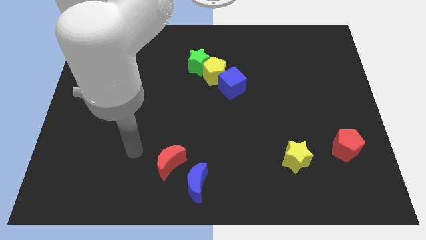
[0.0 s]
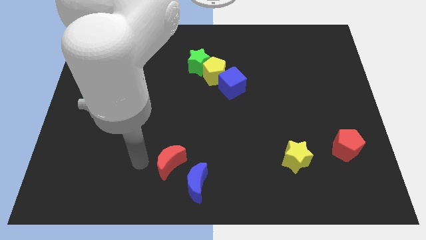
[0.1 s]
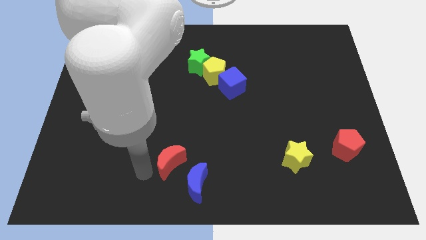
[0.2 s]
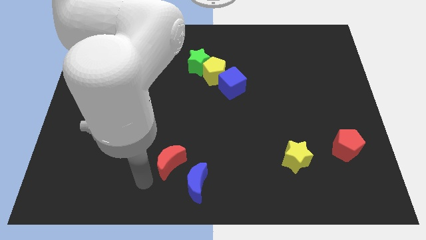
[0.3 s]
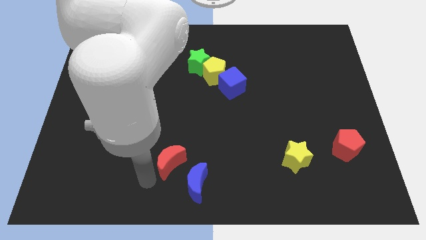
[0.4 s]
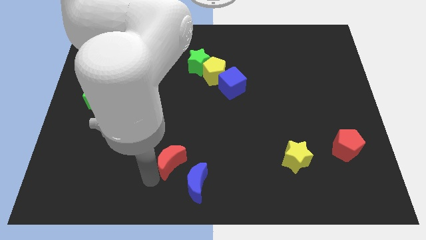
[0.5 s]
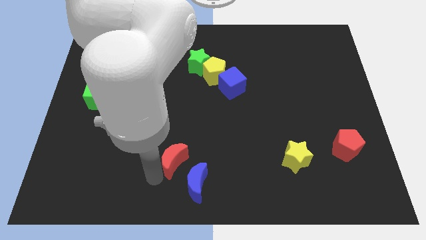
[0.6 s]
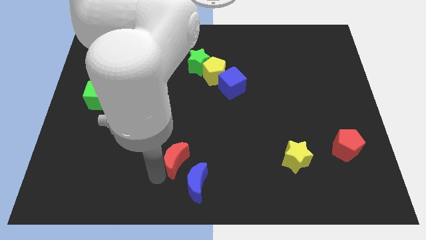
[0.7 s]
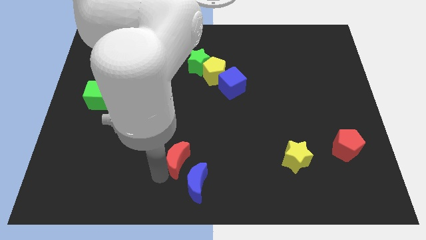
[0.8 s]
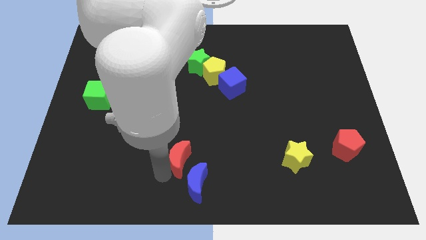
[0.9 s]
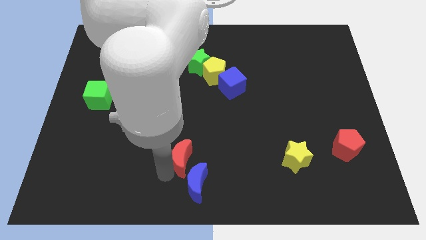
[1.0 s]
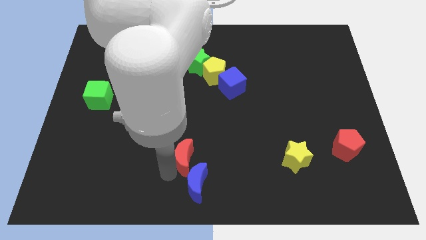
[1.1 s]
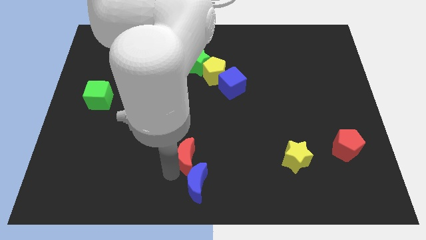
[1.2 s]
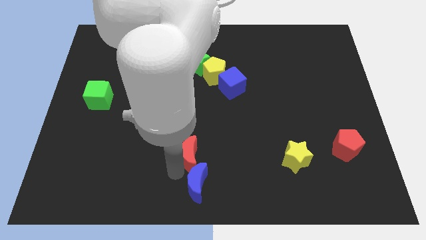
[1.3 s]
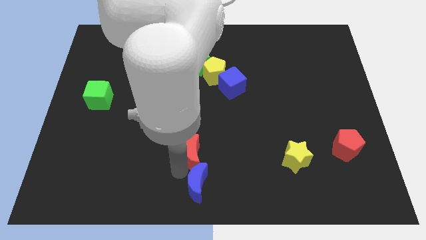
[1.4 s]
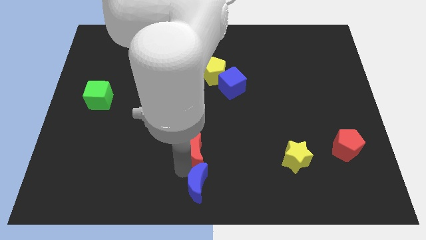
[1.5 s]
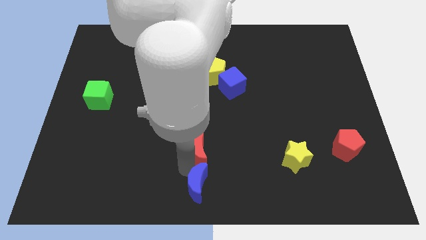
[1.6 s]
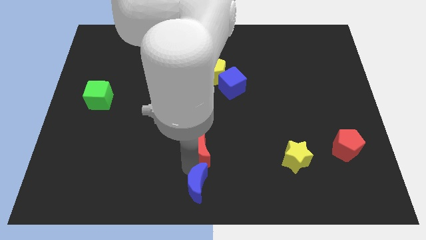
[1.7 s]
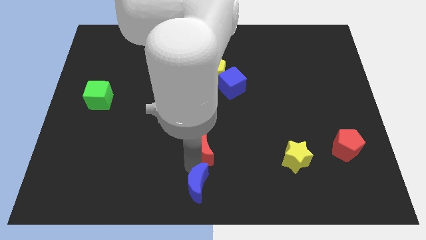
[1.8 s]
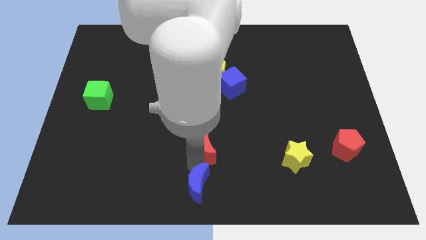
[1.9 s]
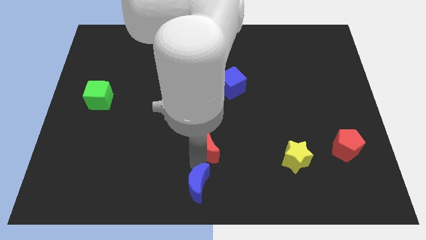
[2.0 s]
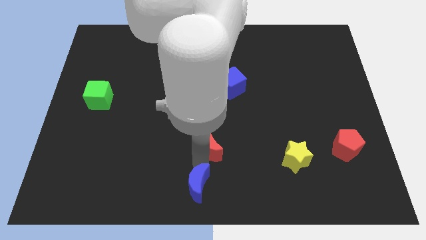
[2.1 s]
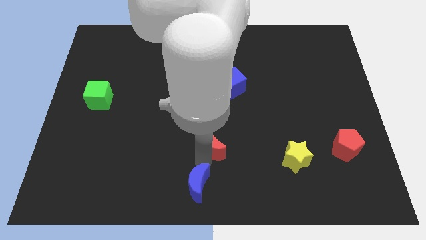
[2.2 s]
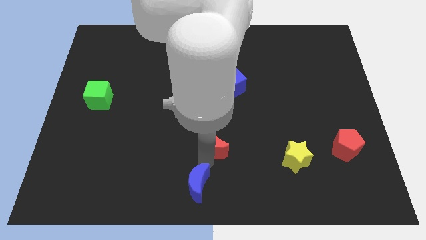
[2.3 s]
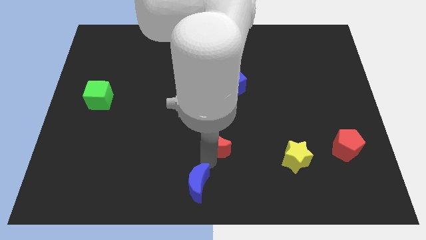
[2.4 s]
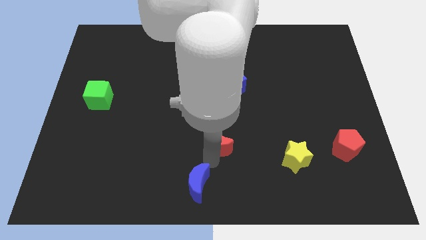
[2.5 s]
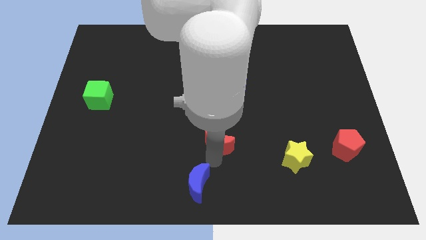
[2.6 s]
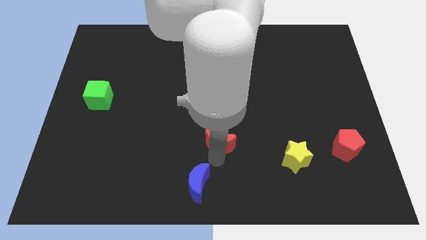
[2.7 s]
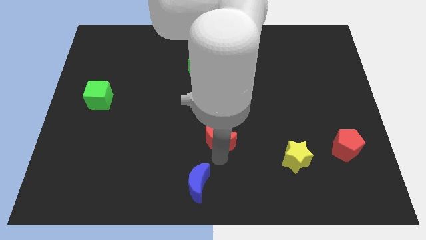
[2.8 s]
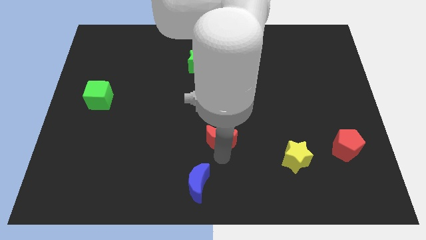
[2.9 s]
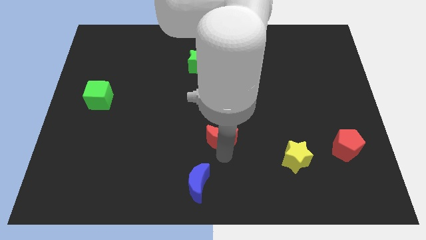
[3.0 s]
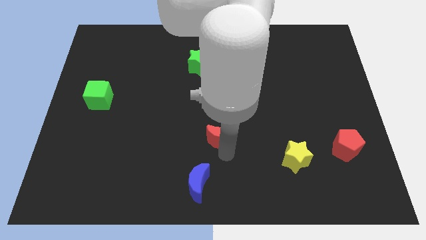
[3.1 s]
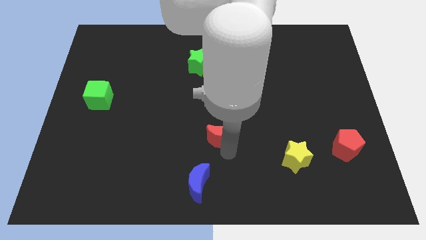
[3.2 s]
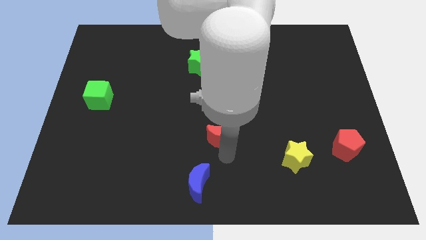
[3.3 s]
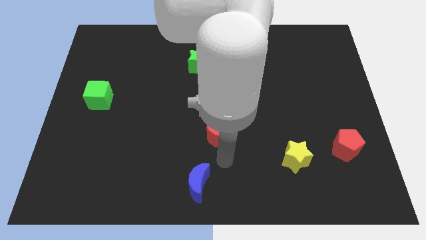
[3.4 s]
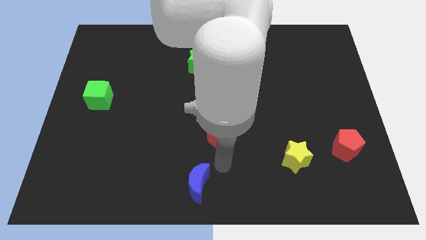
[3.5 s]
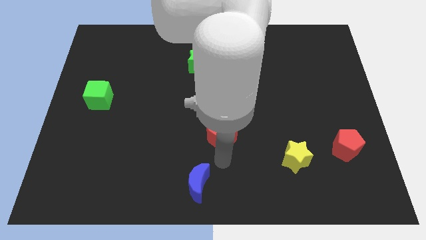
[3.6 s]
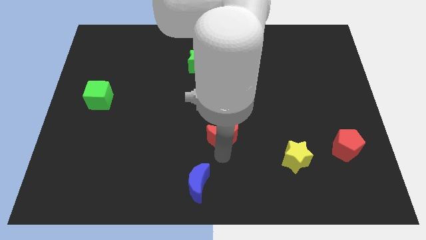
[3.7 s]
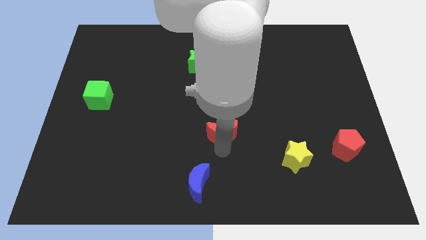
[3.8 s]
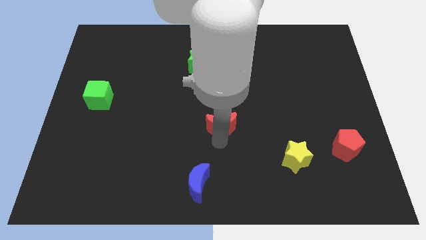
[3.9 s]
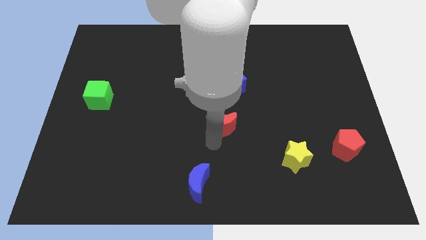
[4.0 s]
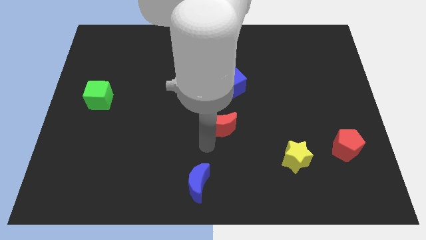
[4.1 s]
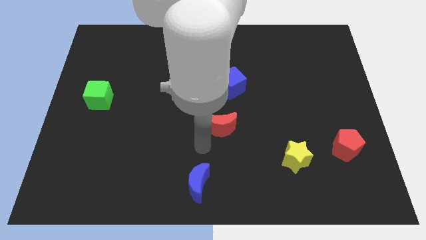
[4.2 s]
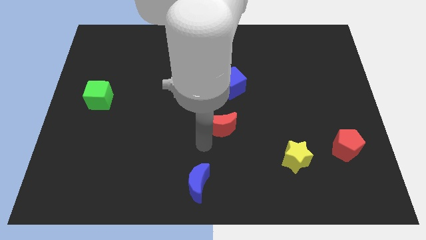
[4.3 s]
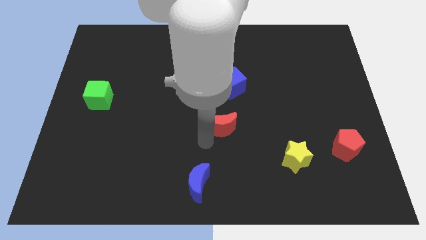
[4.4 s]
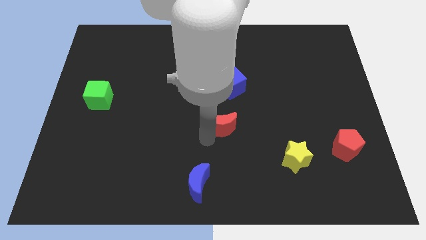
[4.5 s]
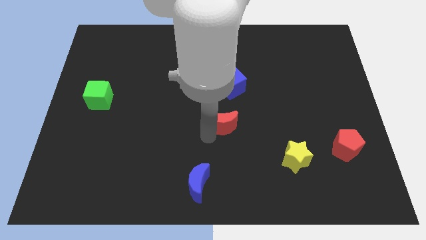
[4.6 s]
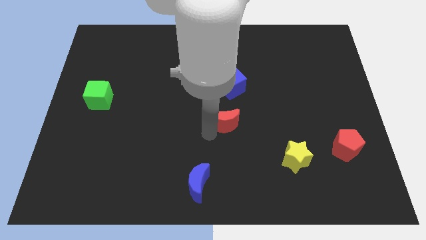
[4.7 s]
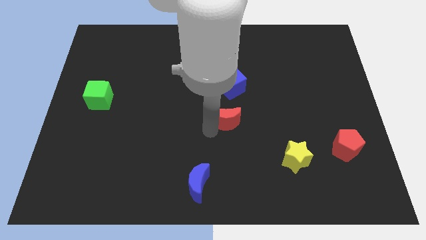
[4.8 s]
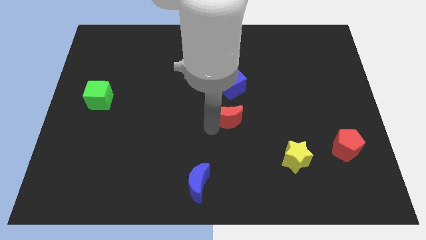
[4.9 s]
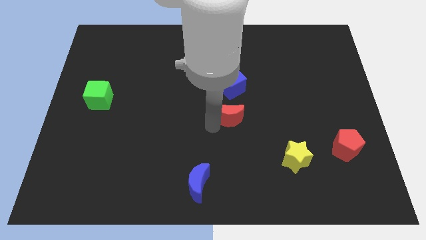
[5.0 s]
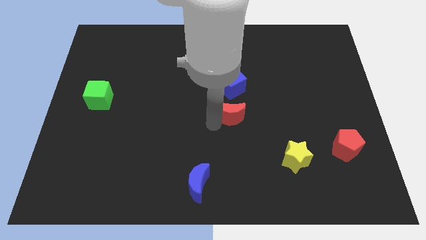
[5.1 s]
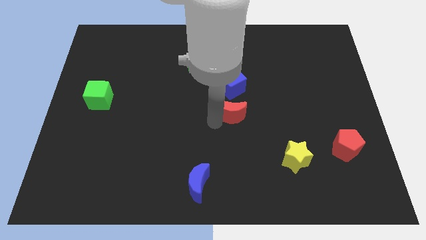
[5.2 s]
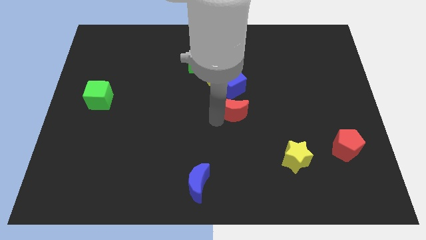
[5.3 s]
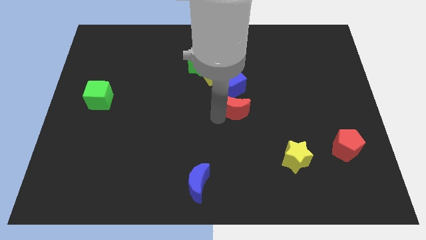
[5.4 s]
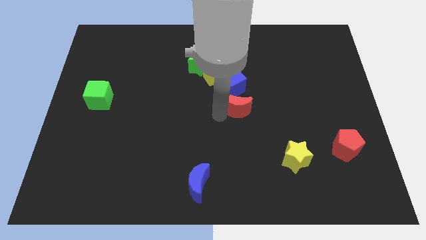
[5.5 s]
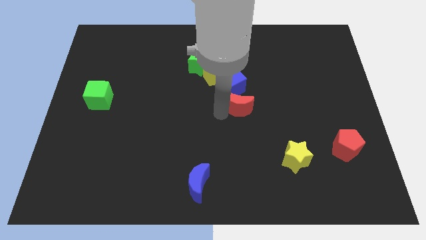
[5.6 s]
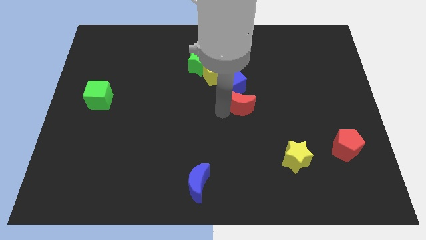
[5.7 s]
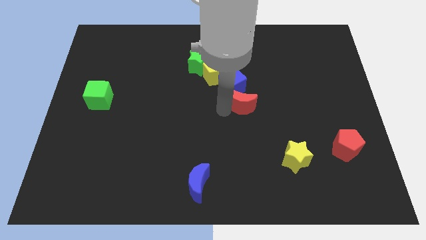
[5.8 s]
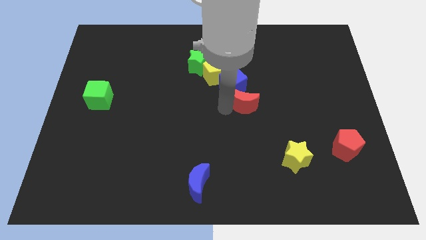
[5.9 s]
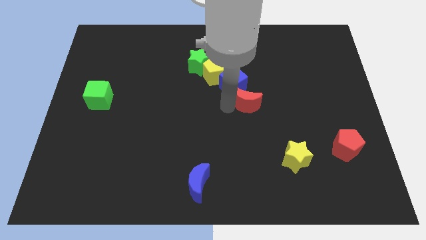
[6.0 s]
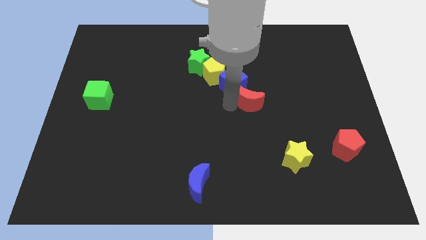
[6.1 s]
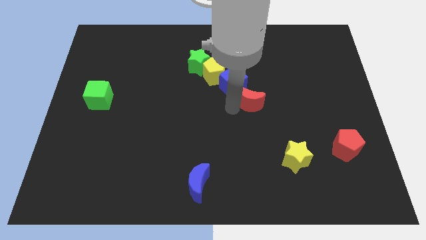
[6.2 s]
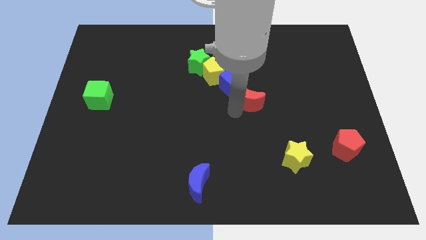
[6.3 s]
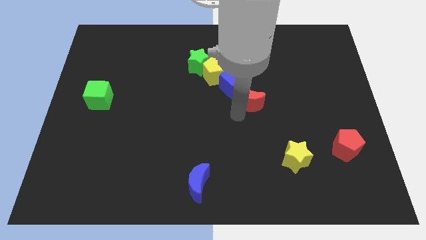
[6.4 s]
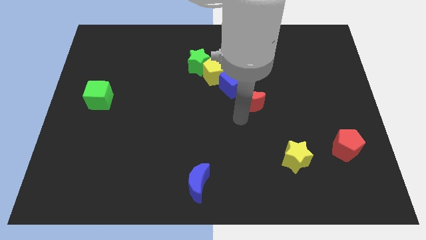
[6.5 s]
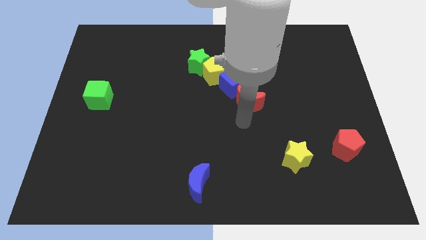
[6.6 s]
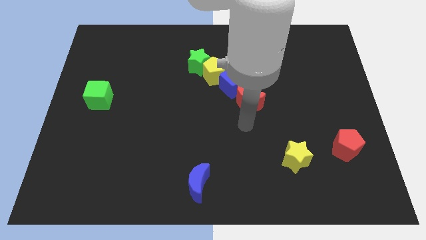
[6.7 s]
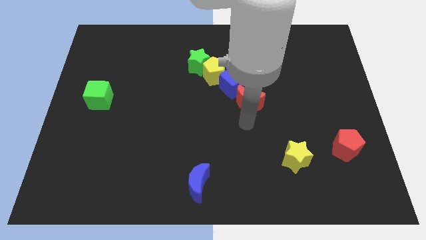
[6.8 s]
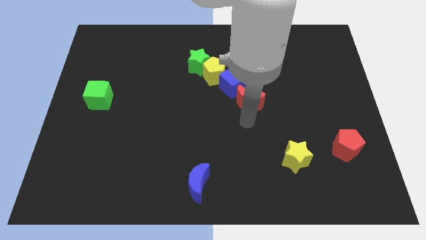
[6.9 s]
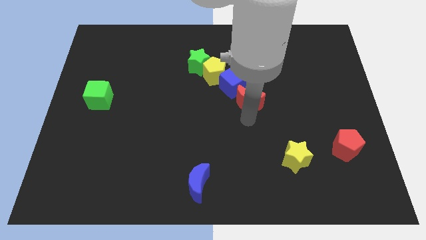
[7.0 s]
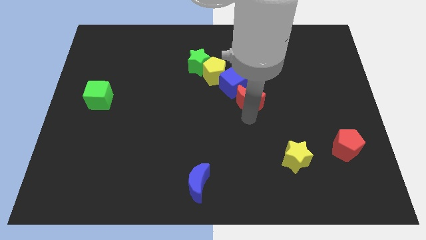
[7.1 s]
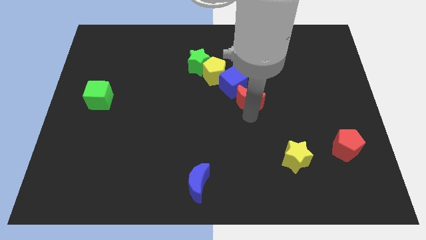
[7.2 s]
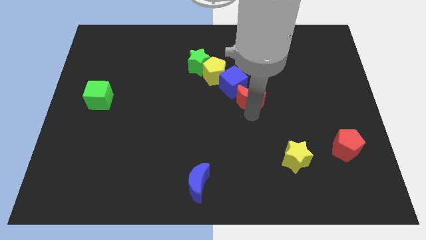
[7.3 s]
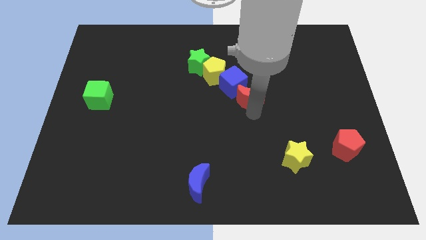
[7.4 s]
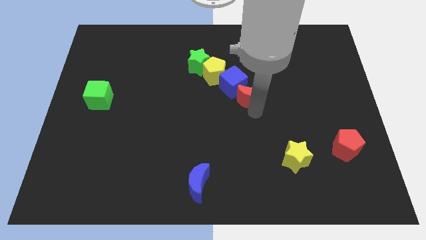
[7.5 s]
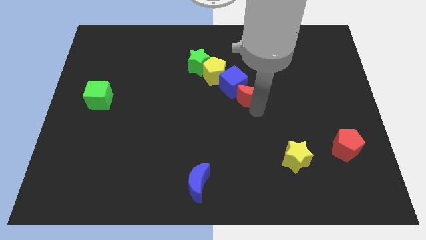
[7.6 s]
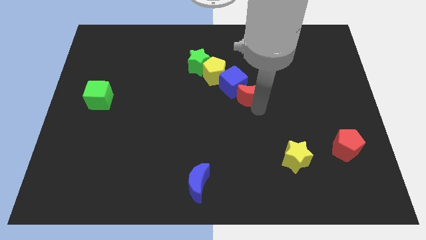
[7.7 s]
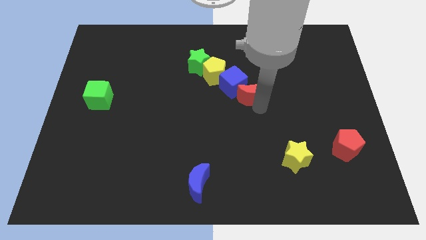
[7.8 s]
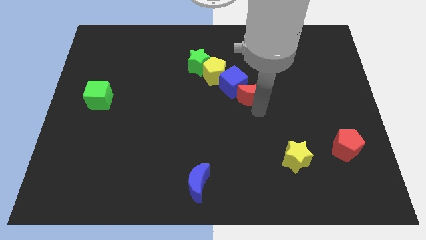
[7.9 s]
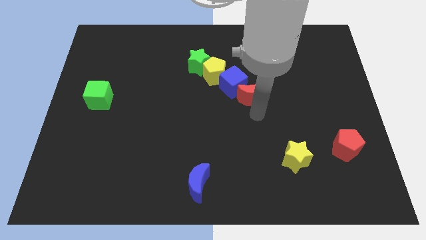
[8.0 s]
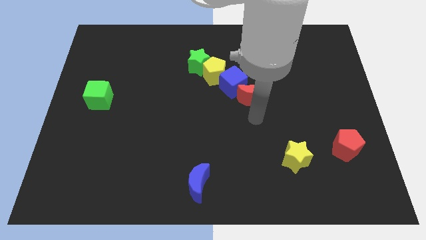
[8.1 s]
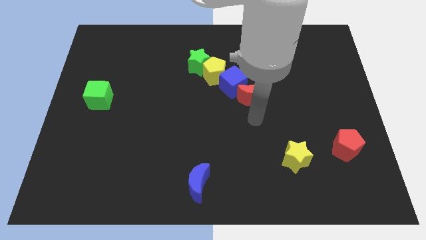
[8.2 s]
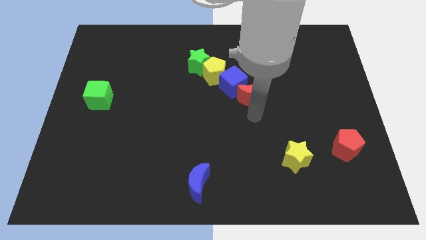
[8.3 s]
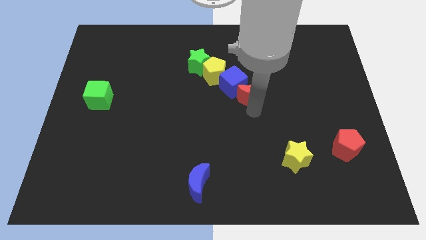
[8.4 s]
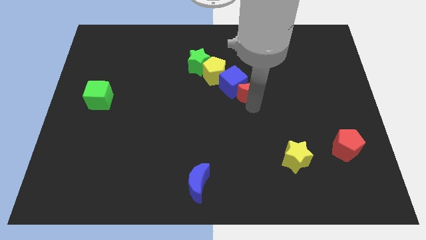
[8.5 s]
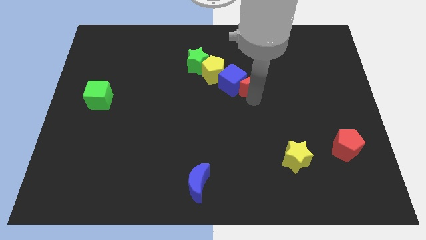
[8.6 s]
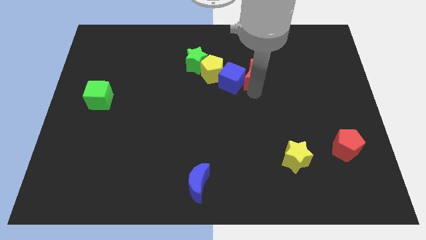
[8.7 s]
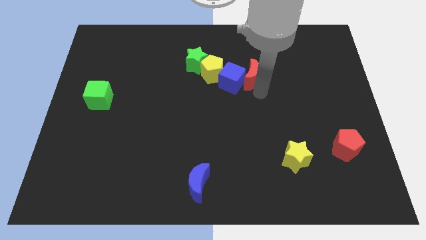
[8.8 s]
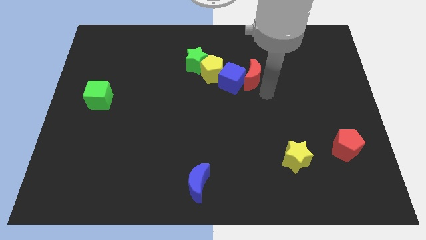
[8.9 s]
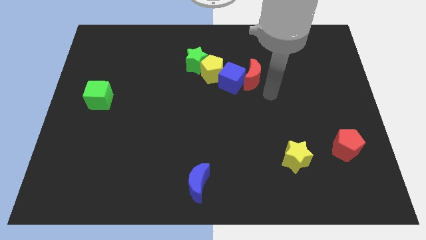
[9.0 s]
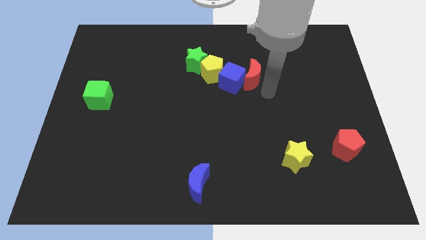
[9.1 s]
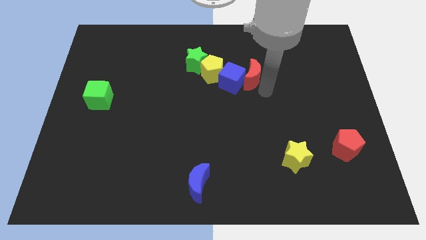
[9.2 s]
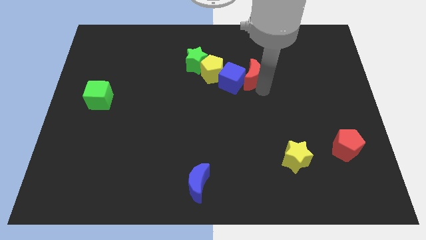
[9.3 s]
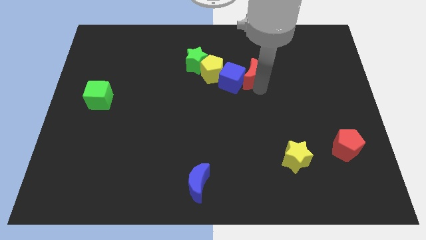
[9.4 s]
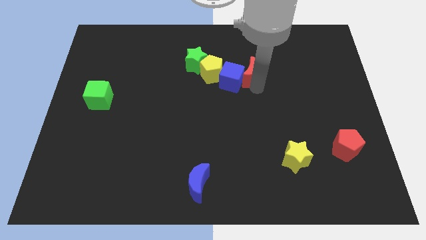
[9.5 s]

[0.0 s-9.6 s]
push the red moon to the right side of the green star
